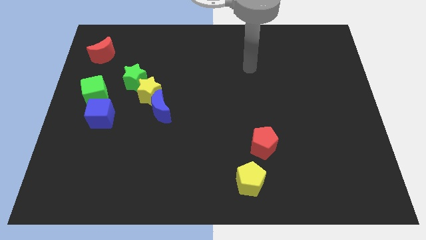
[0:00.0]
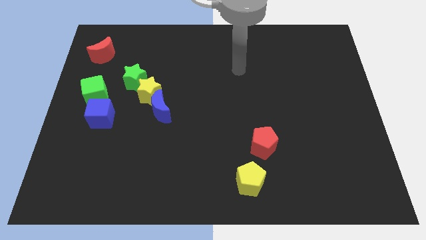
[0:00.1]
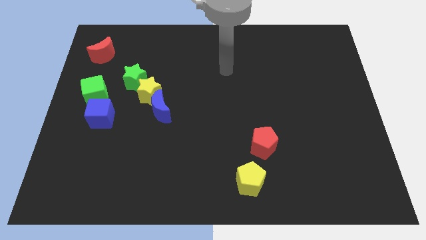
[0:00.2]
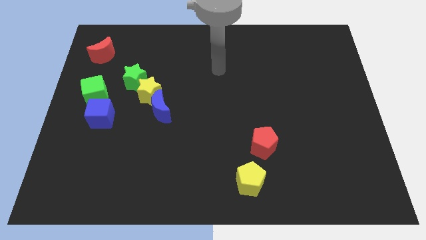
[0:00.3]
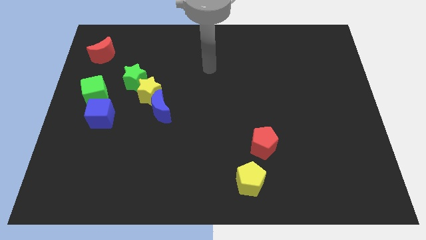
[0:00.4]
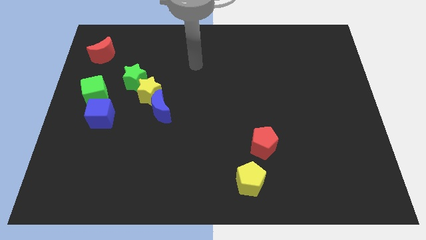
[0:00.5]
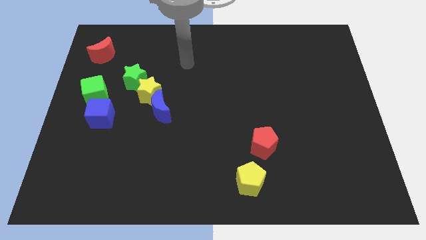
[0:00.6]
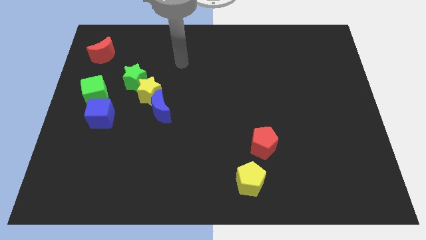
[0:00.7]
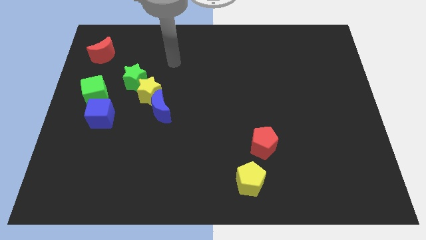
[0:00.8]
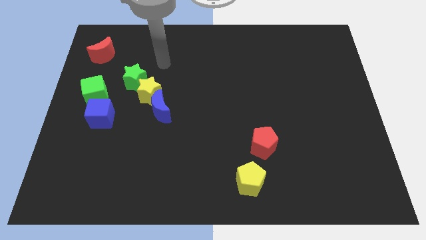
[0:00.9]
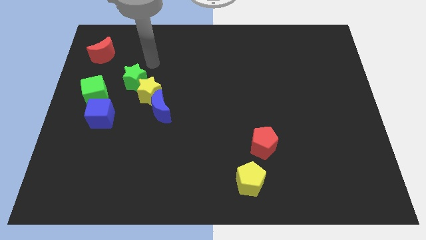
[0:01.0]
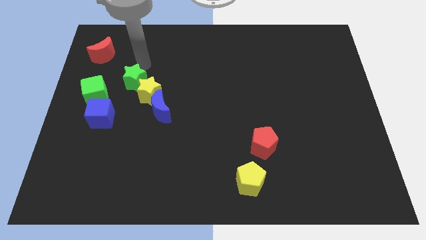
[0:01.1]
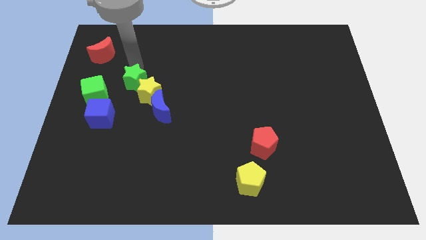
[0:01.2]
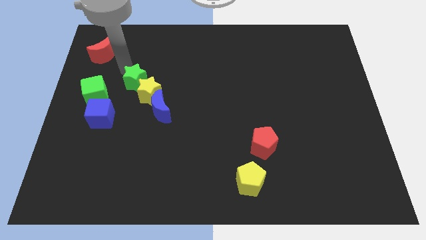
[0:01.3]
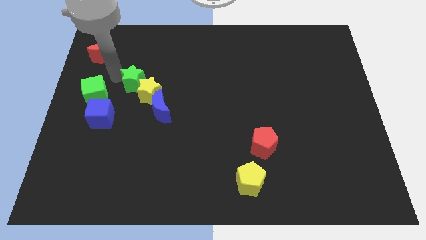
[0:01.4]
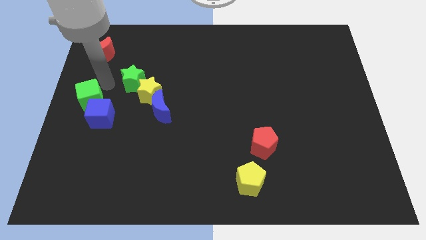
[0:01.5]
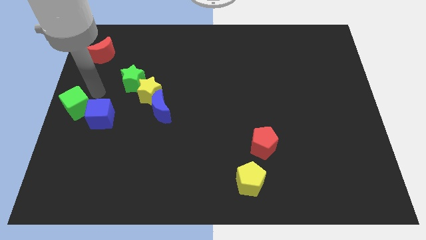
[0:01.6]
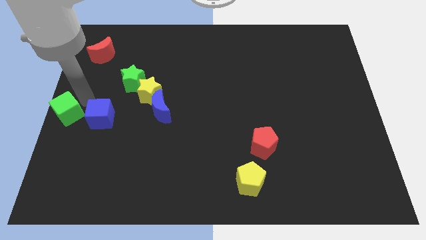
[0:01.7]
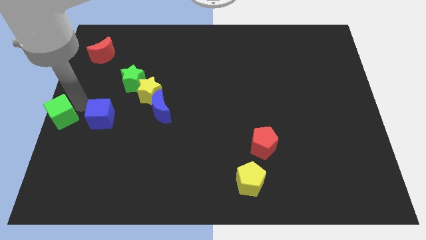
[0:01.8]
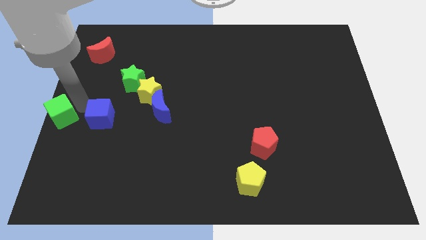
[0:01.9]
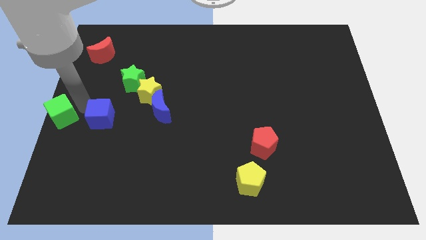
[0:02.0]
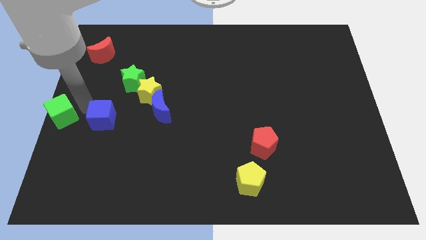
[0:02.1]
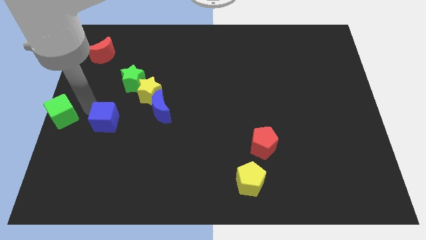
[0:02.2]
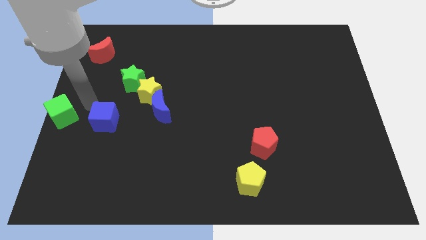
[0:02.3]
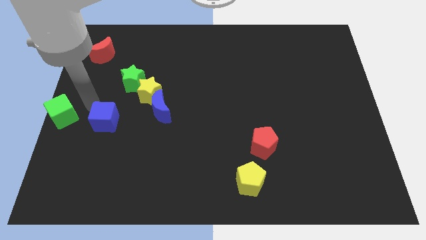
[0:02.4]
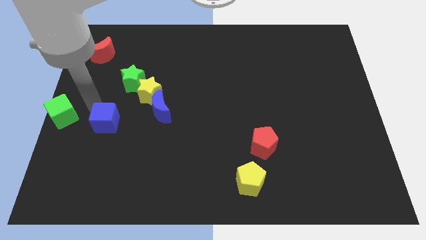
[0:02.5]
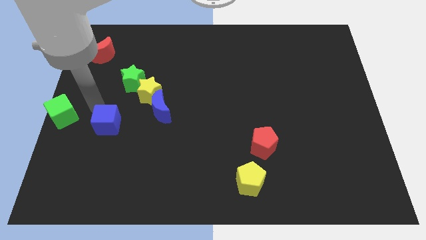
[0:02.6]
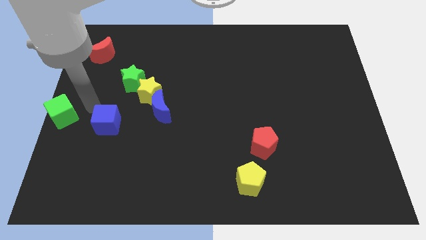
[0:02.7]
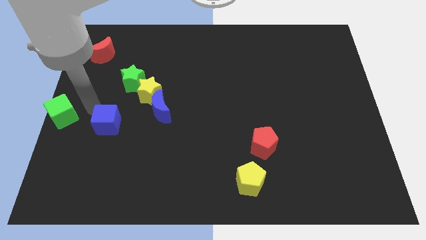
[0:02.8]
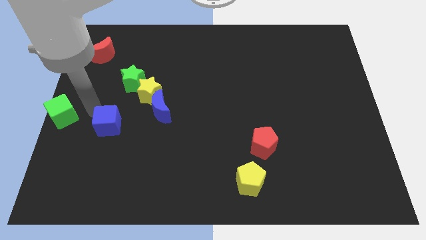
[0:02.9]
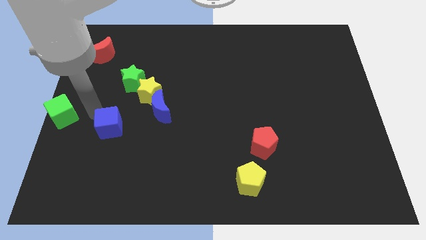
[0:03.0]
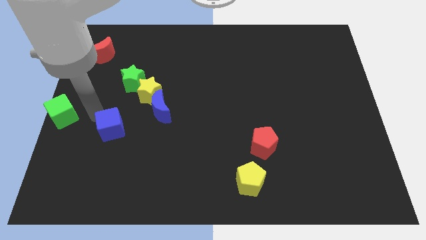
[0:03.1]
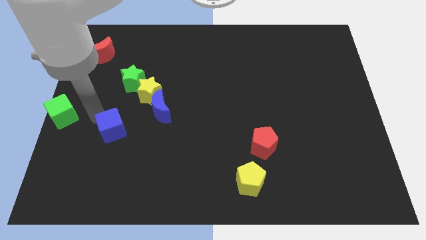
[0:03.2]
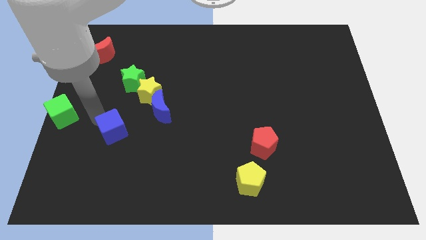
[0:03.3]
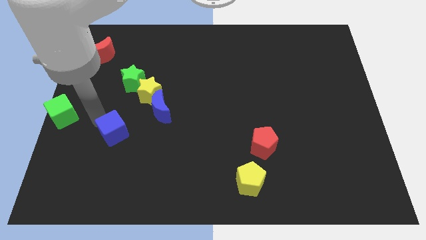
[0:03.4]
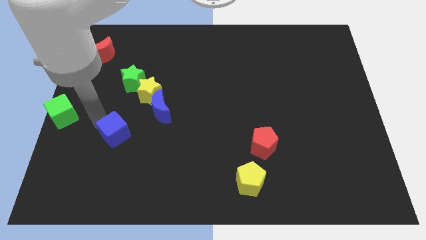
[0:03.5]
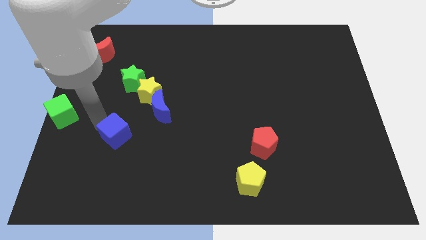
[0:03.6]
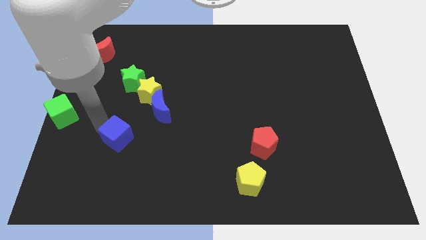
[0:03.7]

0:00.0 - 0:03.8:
push the blue cube diagonally down and to the right slightly

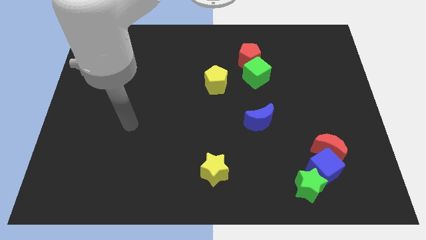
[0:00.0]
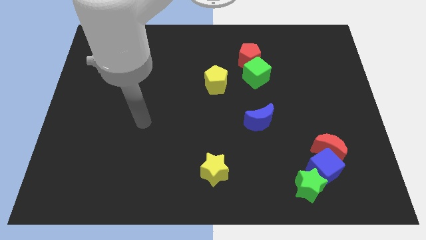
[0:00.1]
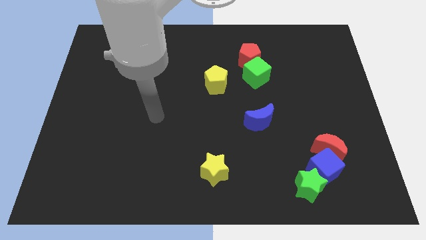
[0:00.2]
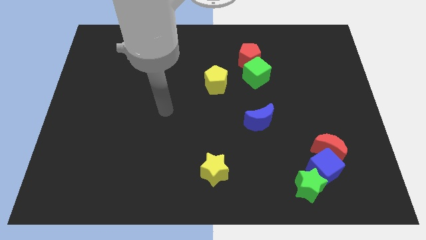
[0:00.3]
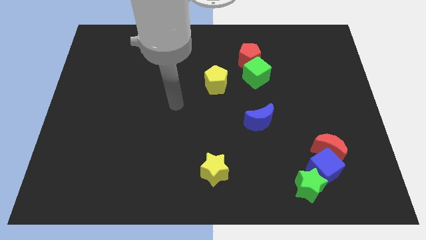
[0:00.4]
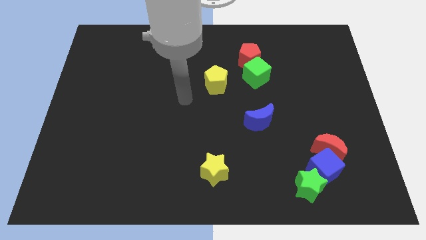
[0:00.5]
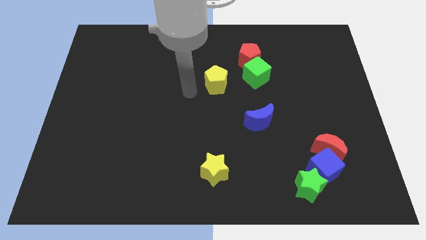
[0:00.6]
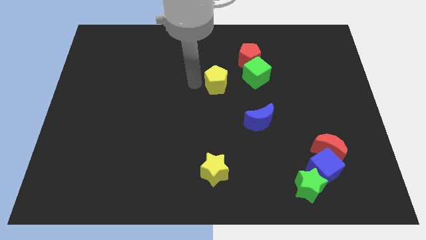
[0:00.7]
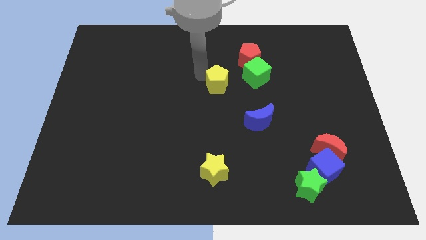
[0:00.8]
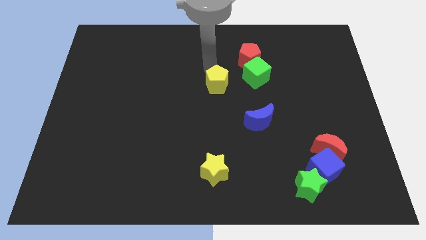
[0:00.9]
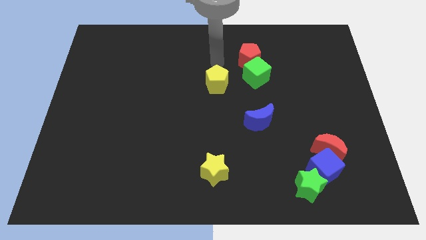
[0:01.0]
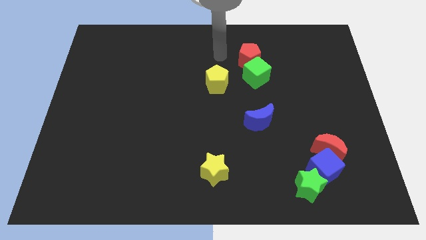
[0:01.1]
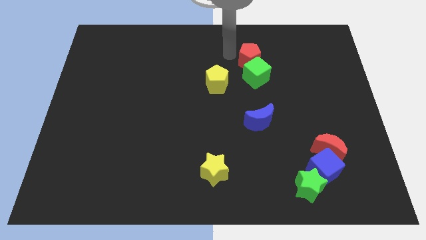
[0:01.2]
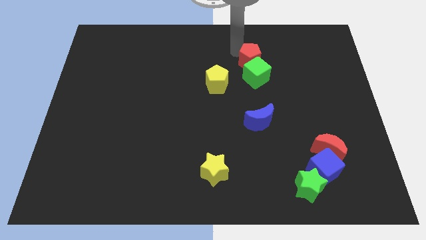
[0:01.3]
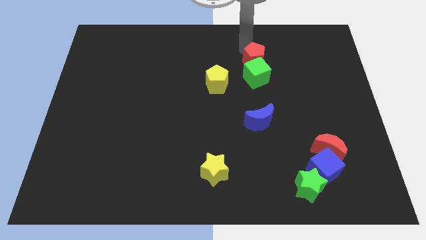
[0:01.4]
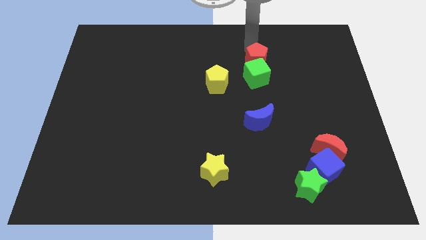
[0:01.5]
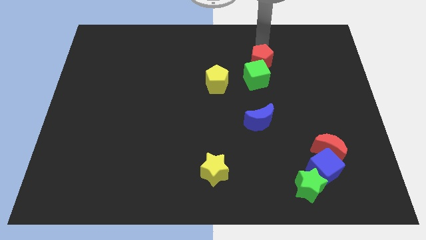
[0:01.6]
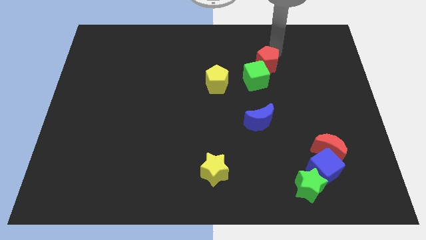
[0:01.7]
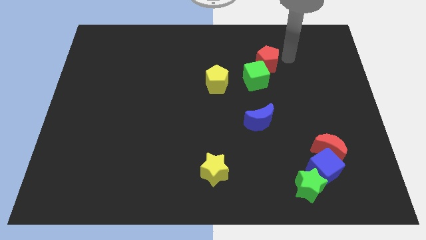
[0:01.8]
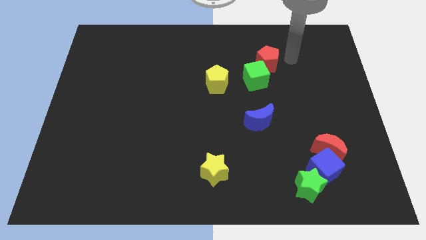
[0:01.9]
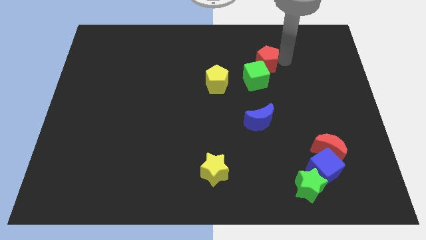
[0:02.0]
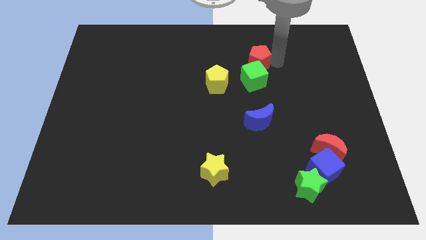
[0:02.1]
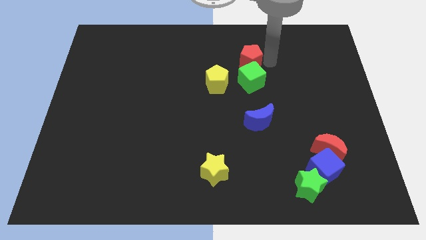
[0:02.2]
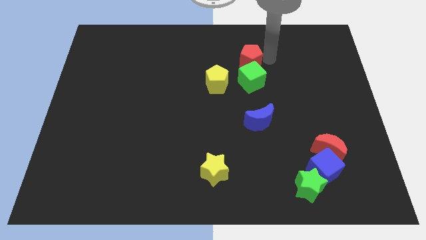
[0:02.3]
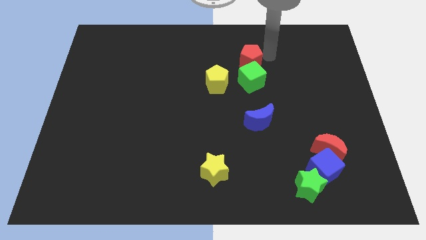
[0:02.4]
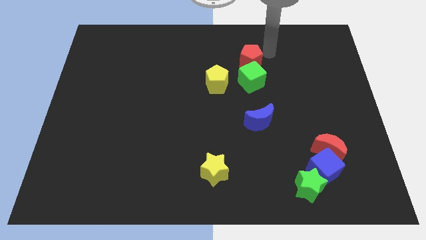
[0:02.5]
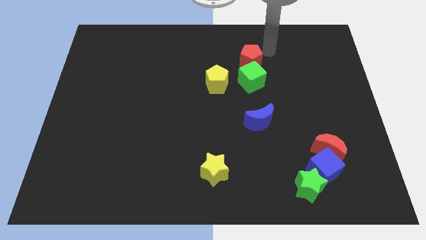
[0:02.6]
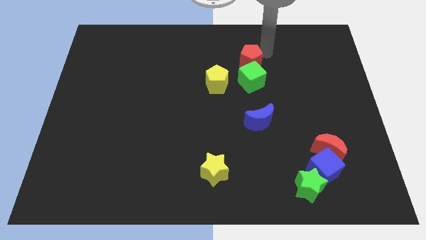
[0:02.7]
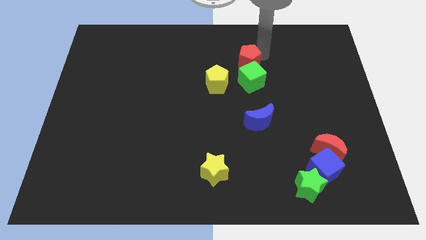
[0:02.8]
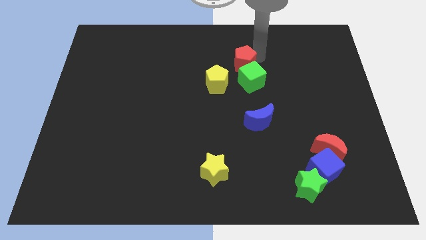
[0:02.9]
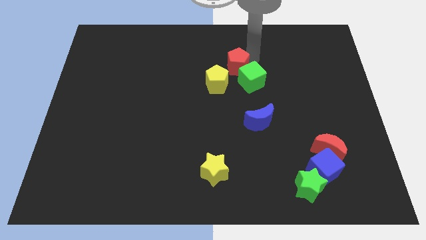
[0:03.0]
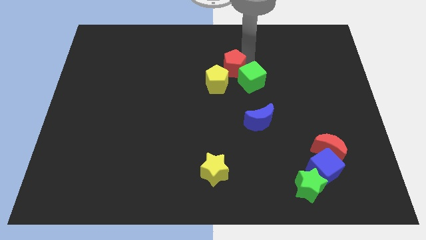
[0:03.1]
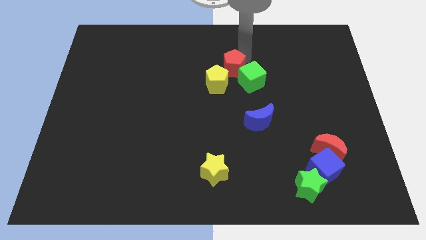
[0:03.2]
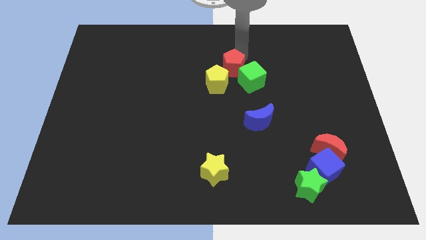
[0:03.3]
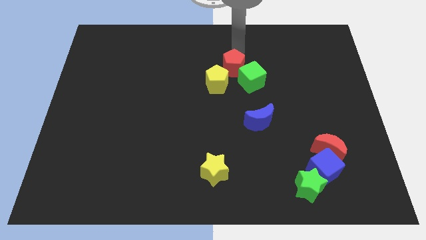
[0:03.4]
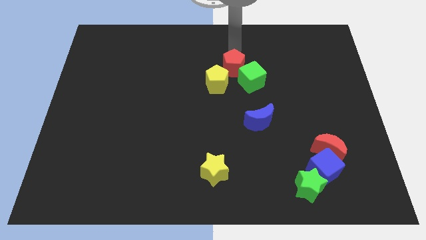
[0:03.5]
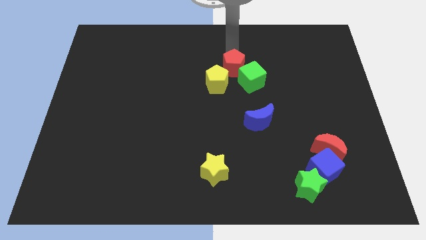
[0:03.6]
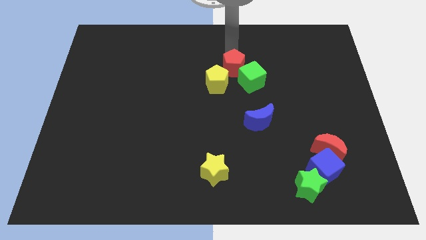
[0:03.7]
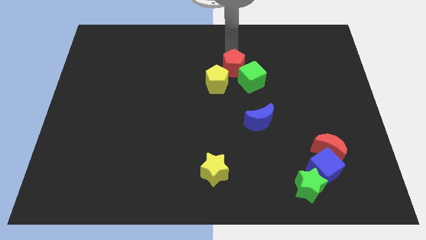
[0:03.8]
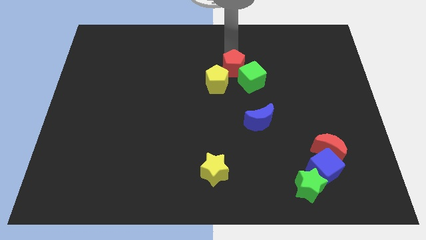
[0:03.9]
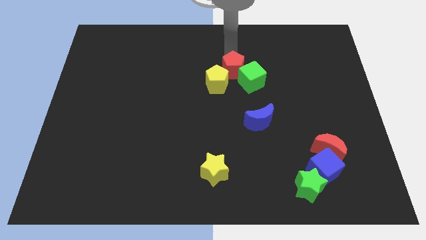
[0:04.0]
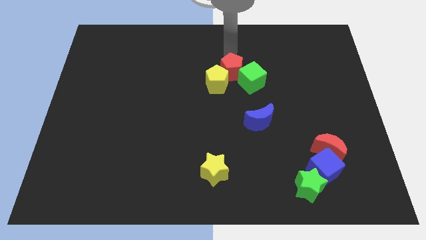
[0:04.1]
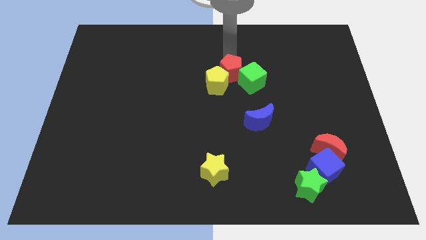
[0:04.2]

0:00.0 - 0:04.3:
push the red pentagon a little bit diagonally down and to the left
